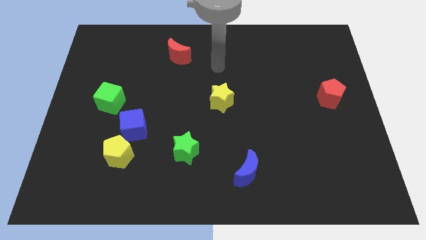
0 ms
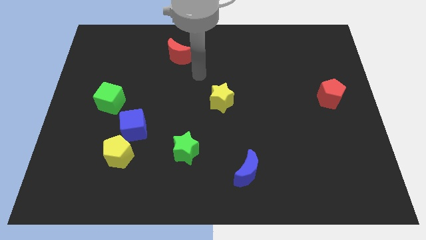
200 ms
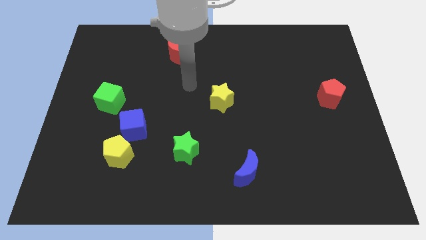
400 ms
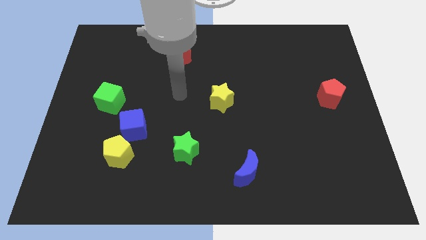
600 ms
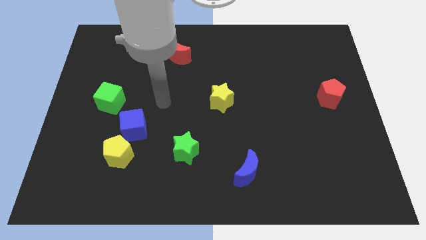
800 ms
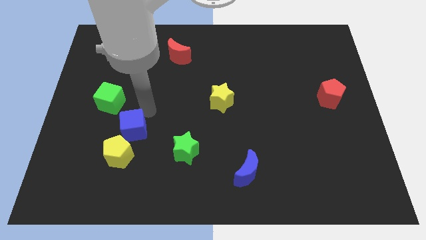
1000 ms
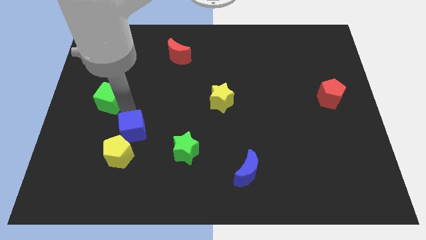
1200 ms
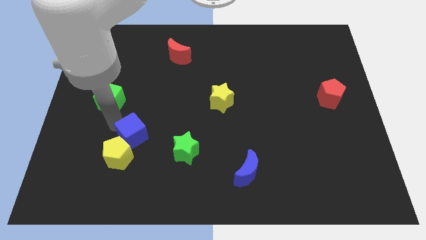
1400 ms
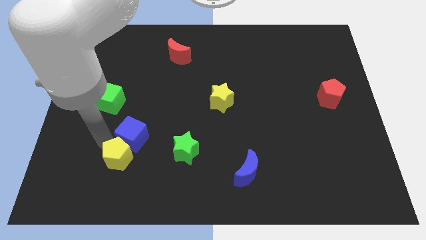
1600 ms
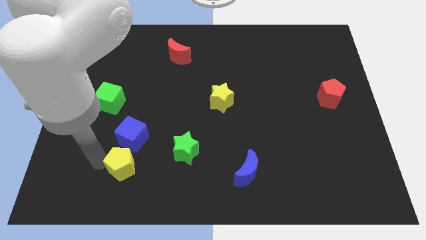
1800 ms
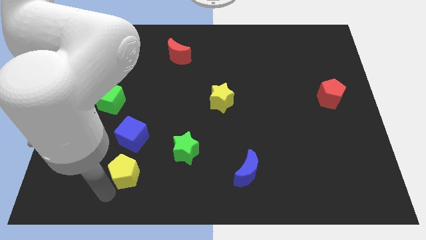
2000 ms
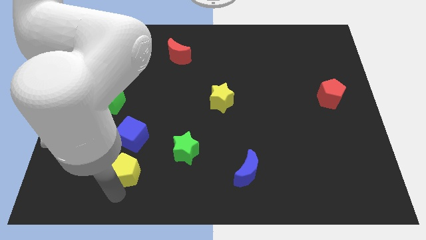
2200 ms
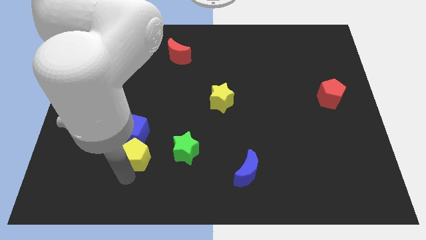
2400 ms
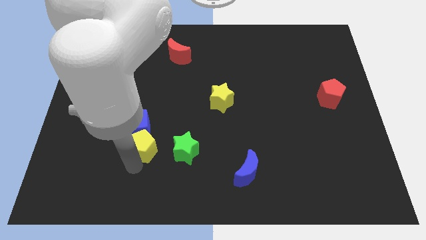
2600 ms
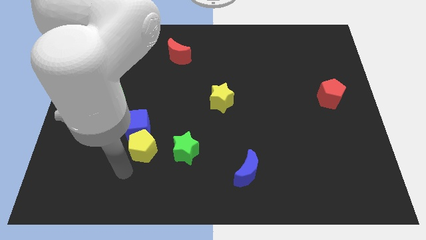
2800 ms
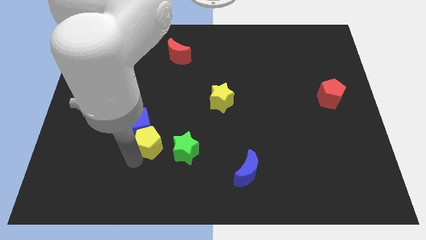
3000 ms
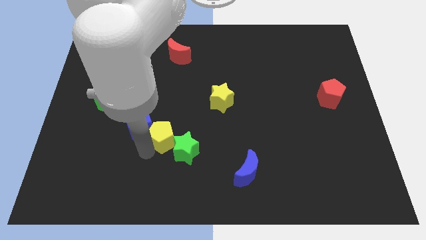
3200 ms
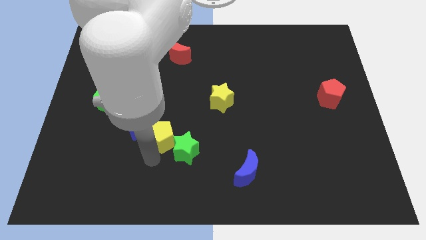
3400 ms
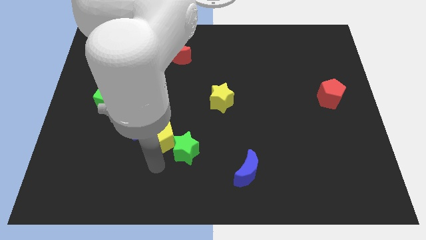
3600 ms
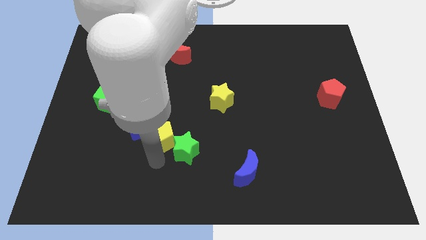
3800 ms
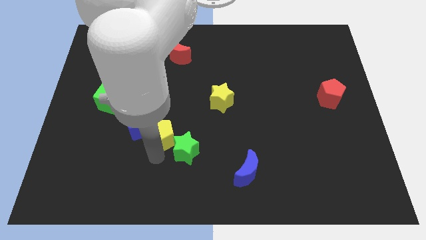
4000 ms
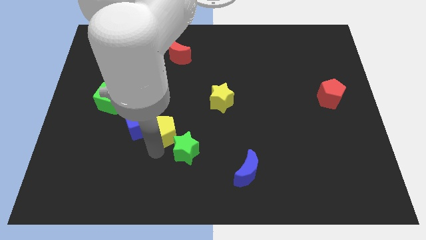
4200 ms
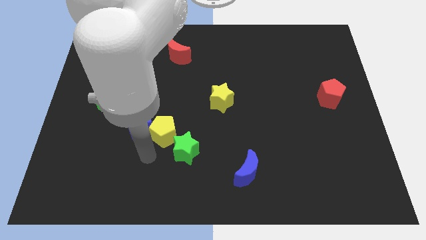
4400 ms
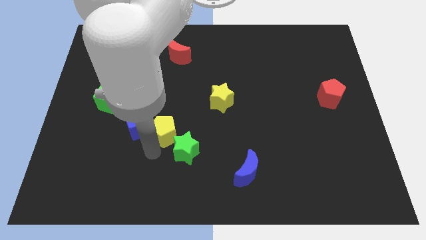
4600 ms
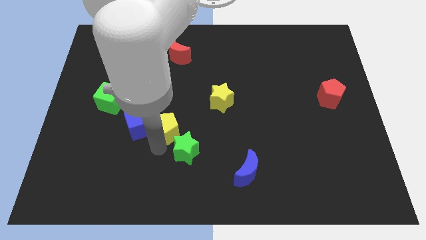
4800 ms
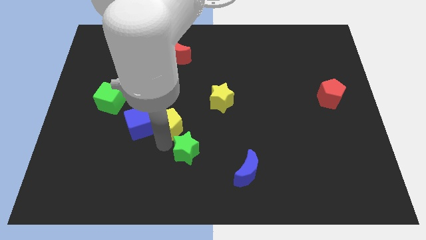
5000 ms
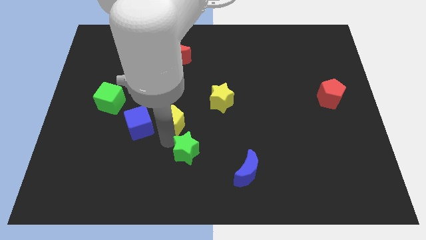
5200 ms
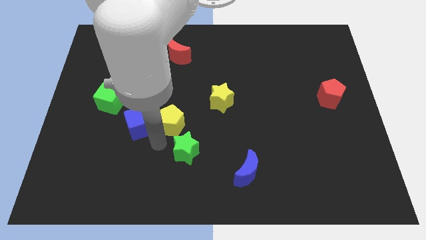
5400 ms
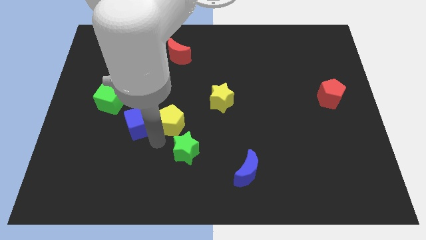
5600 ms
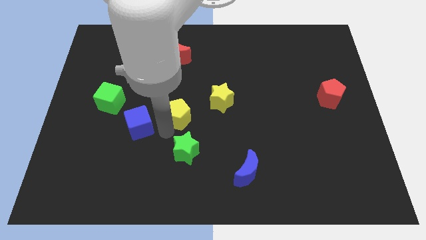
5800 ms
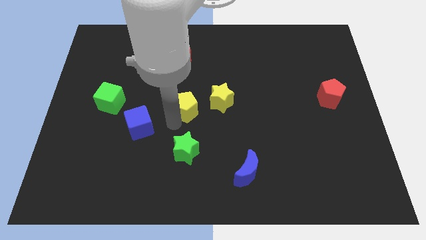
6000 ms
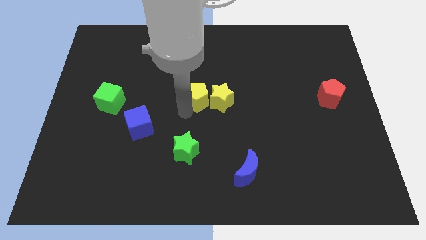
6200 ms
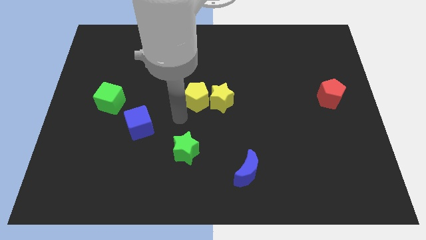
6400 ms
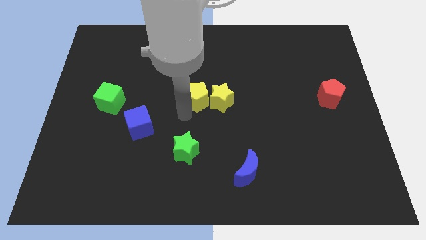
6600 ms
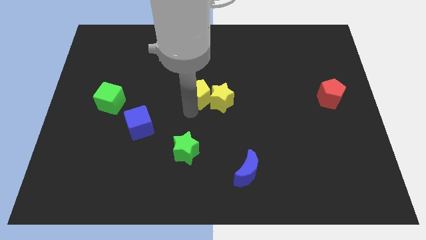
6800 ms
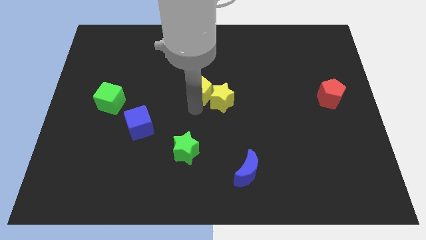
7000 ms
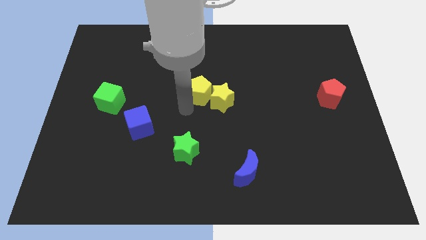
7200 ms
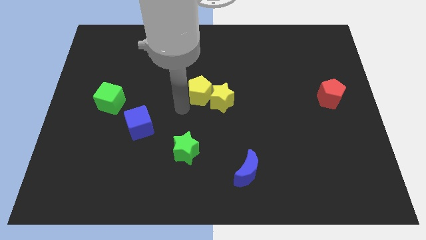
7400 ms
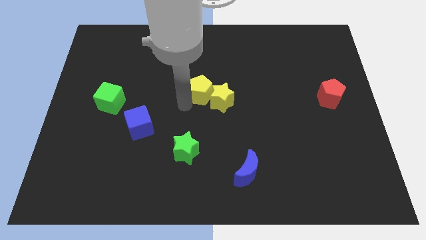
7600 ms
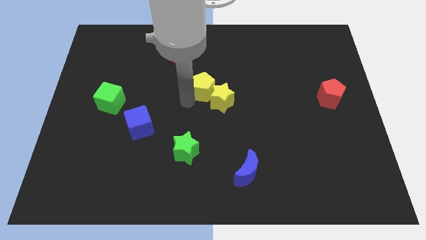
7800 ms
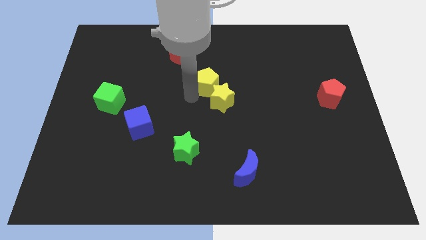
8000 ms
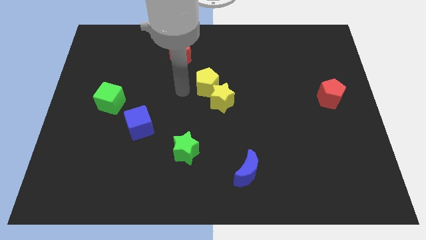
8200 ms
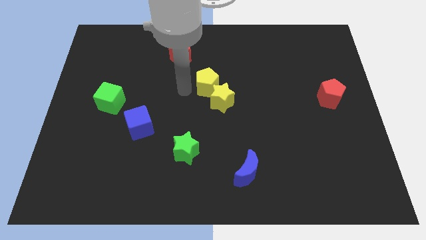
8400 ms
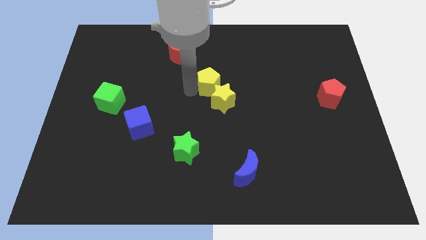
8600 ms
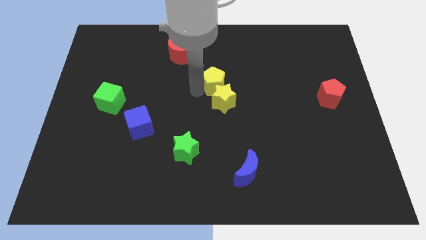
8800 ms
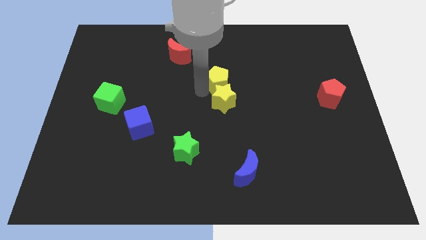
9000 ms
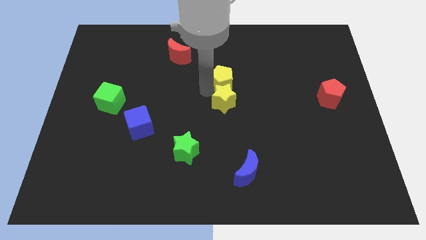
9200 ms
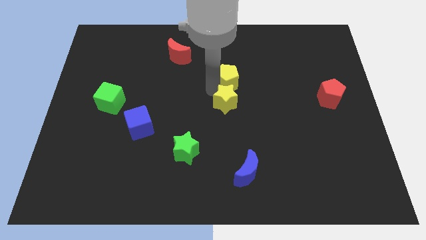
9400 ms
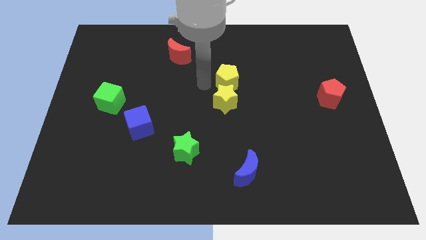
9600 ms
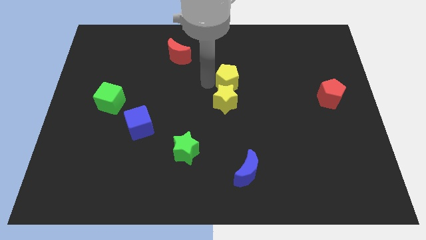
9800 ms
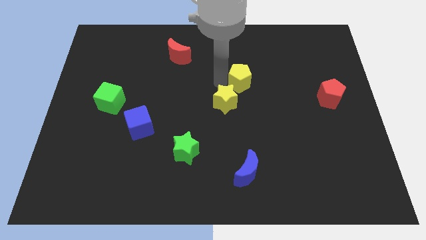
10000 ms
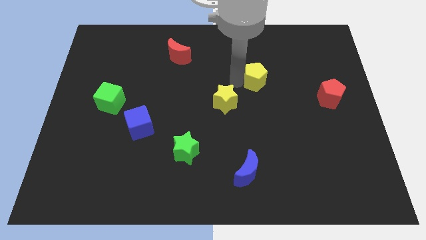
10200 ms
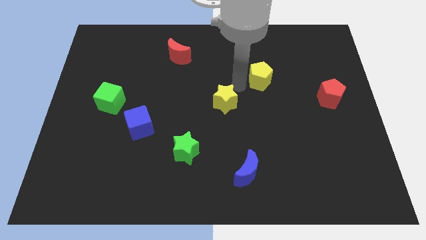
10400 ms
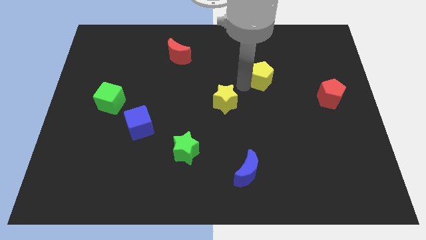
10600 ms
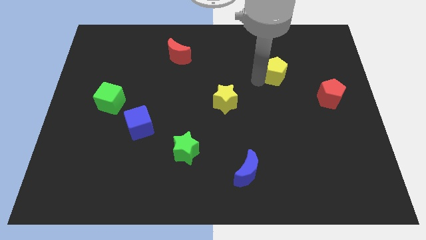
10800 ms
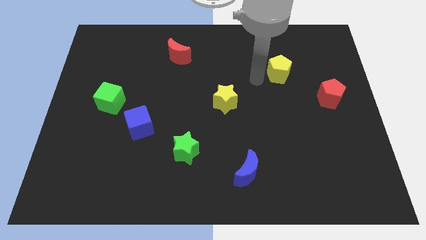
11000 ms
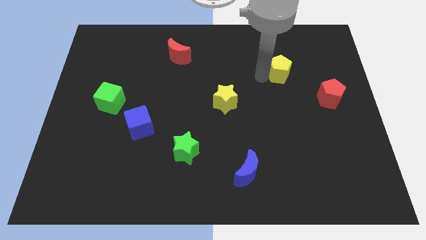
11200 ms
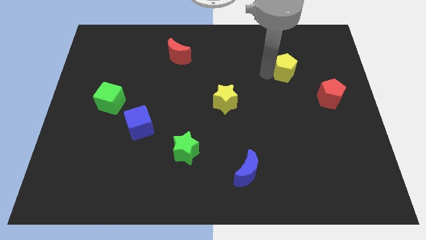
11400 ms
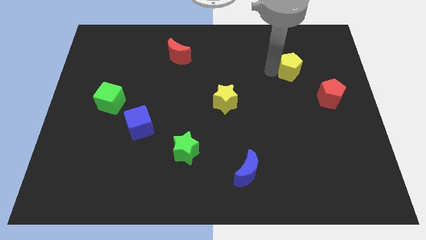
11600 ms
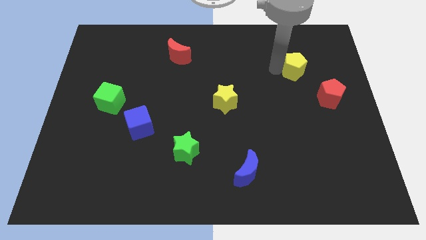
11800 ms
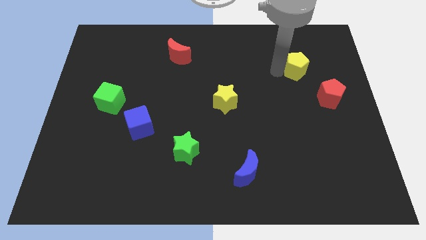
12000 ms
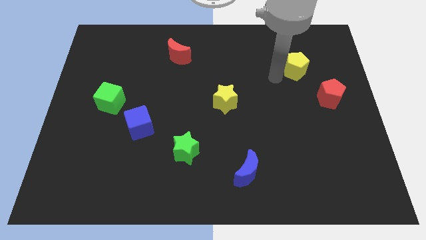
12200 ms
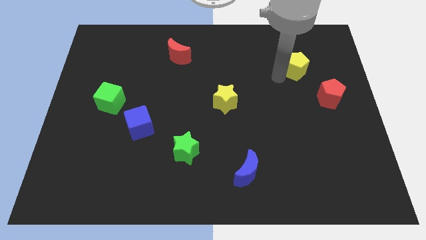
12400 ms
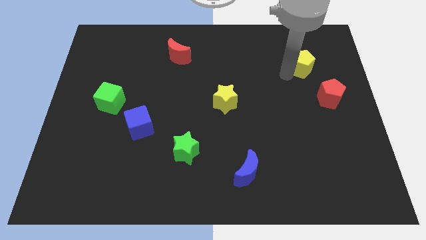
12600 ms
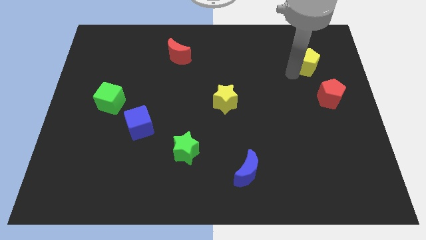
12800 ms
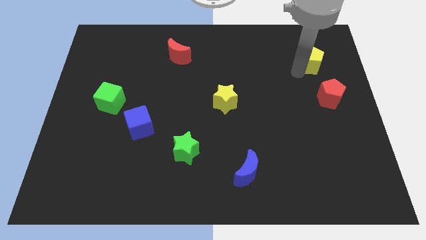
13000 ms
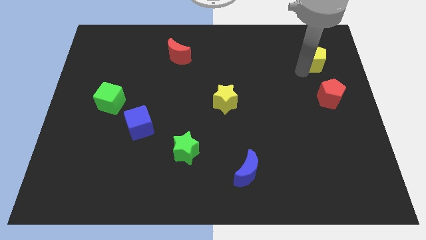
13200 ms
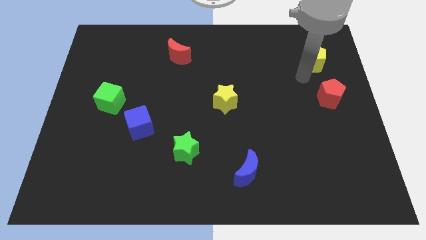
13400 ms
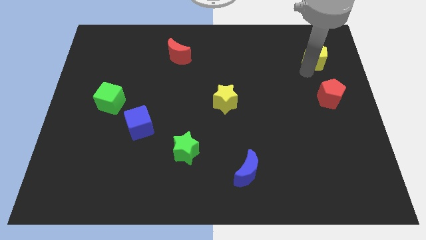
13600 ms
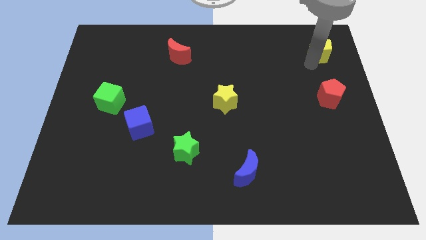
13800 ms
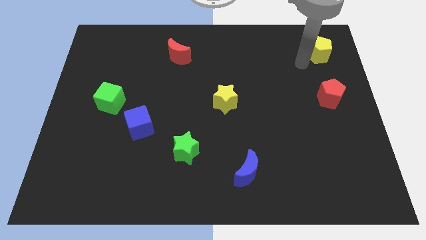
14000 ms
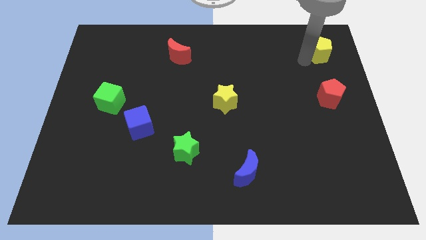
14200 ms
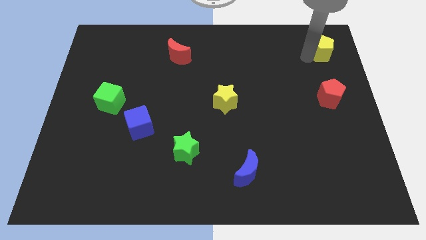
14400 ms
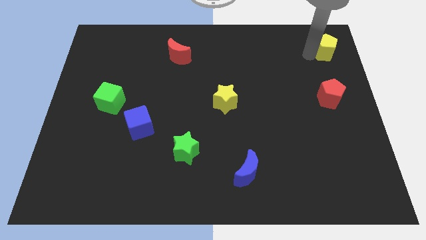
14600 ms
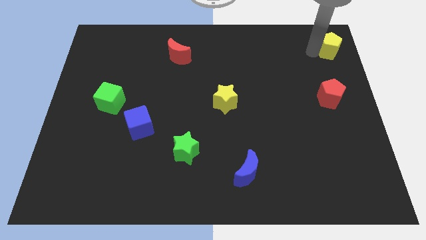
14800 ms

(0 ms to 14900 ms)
push the yellow pentagon to the top right corner
